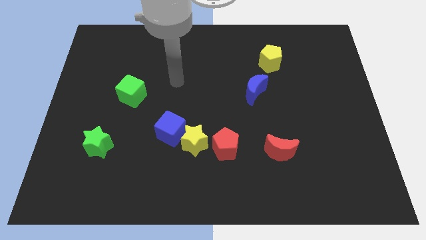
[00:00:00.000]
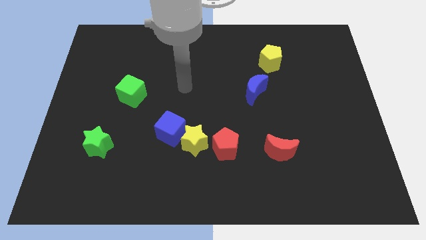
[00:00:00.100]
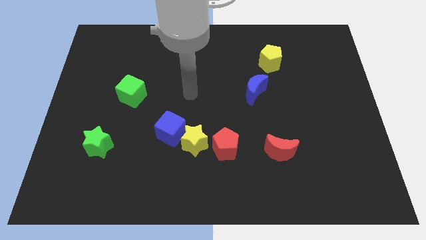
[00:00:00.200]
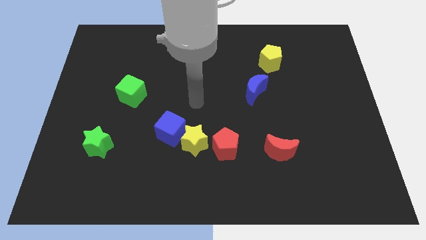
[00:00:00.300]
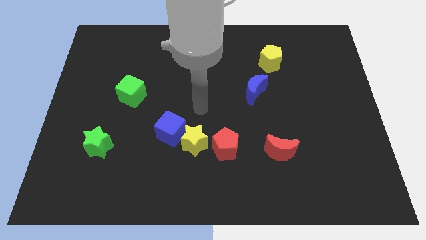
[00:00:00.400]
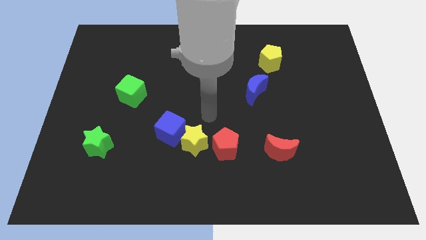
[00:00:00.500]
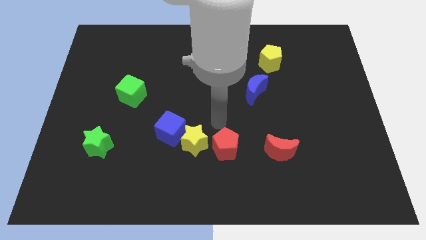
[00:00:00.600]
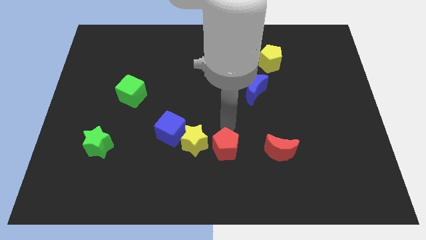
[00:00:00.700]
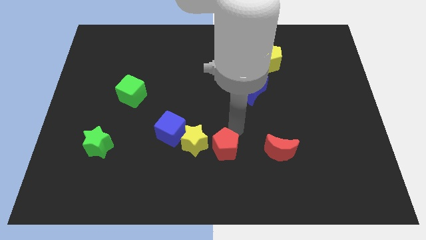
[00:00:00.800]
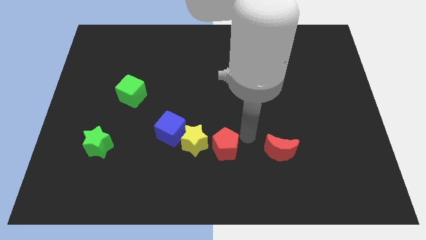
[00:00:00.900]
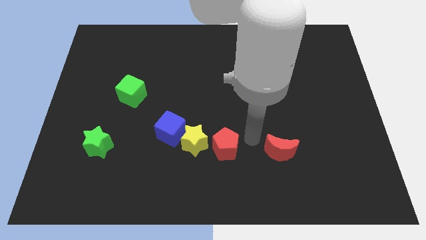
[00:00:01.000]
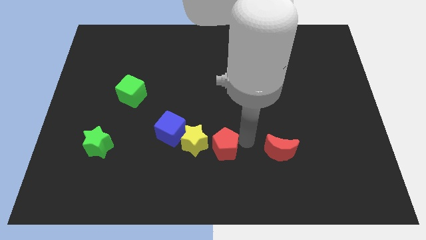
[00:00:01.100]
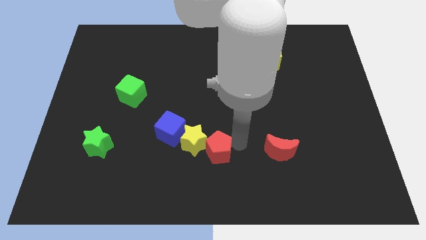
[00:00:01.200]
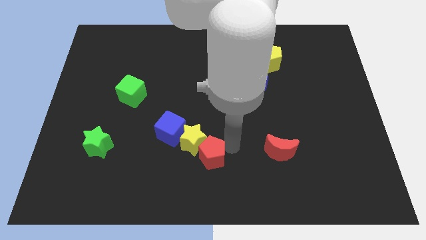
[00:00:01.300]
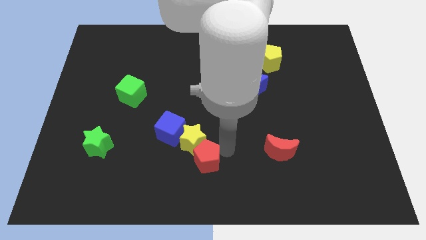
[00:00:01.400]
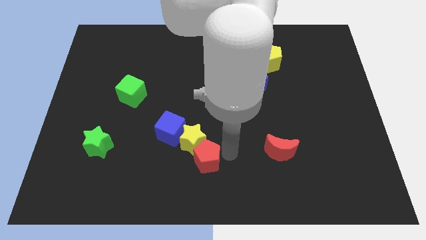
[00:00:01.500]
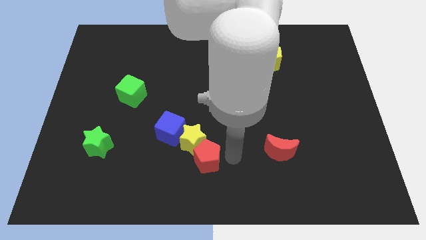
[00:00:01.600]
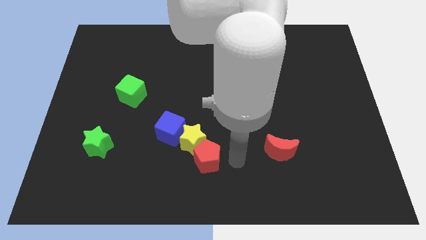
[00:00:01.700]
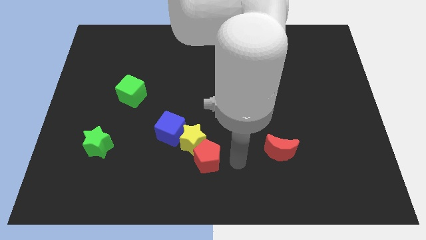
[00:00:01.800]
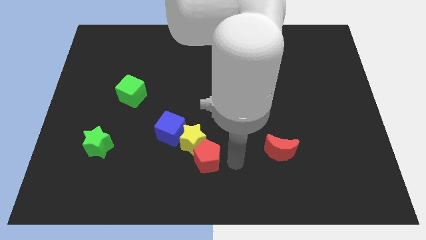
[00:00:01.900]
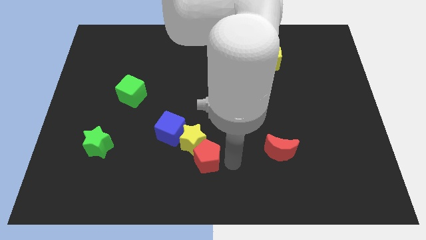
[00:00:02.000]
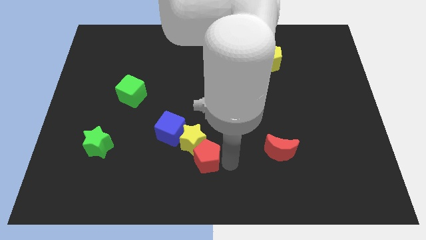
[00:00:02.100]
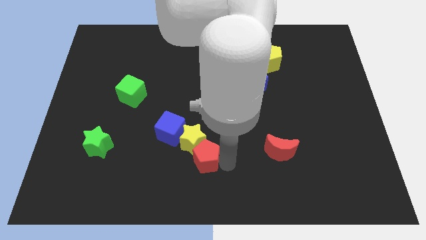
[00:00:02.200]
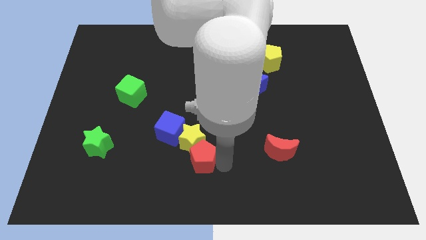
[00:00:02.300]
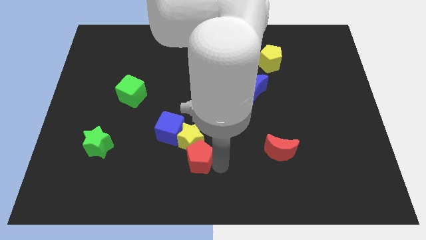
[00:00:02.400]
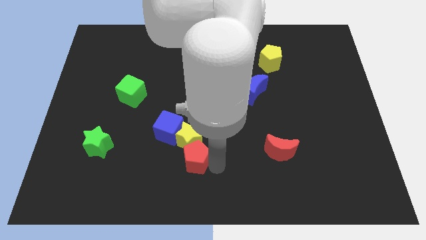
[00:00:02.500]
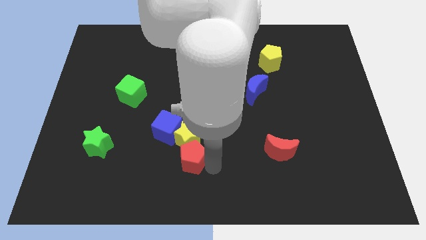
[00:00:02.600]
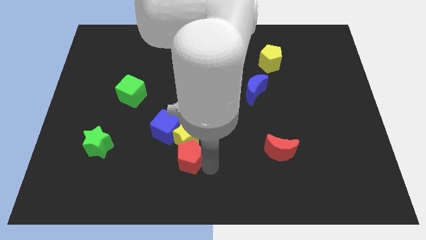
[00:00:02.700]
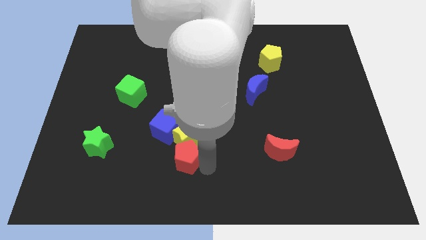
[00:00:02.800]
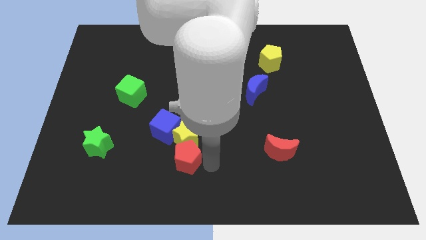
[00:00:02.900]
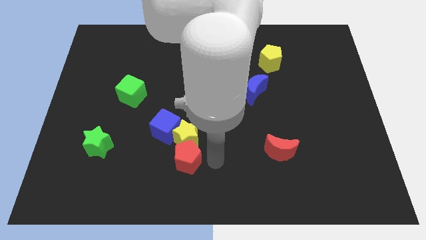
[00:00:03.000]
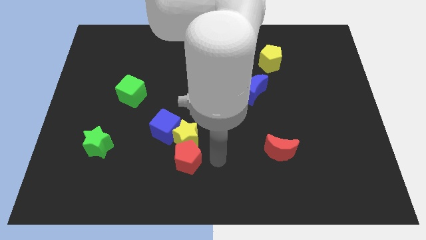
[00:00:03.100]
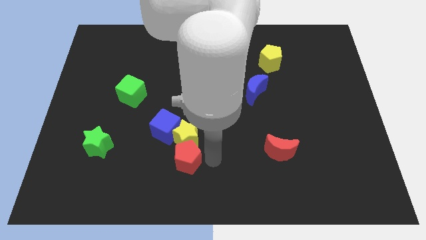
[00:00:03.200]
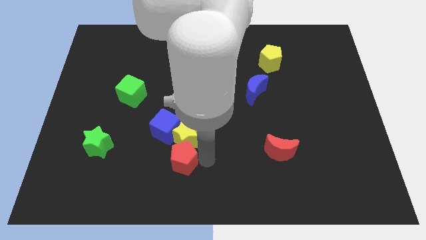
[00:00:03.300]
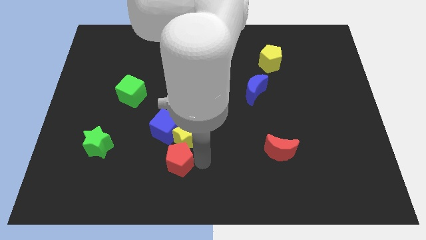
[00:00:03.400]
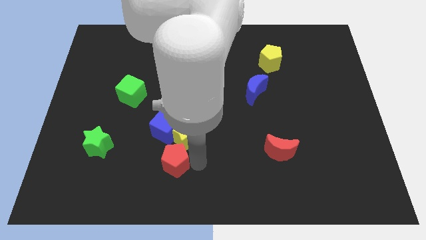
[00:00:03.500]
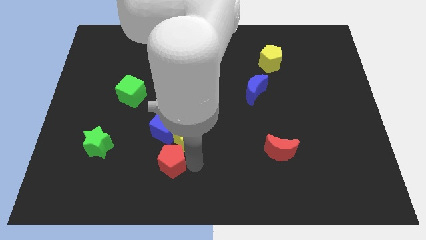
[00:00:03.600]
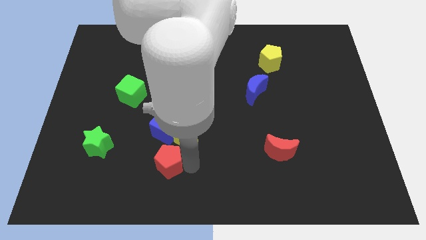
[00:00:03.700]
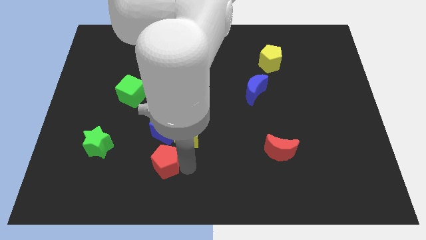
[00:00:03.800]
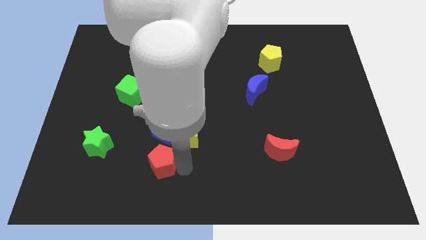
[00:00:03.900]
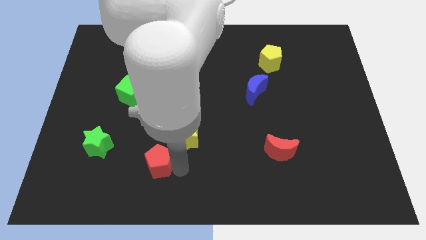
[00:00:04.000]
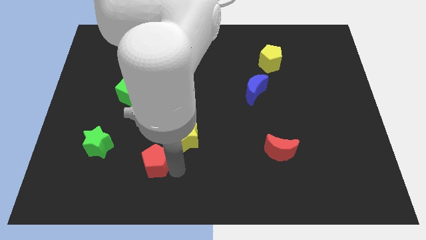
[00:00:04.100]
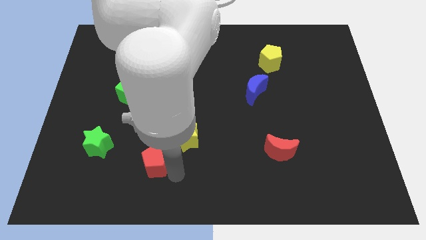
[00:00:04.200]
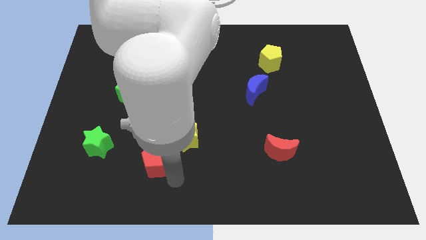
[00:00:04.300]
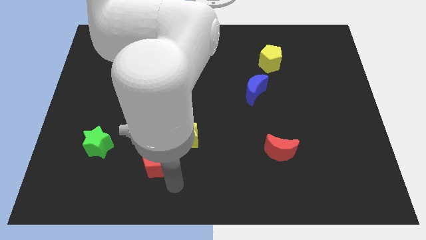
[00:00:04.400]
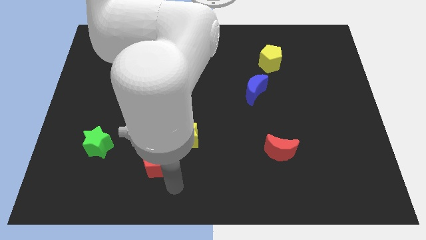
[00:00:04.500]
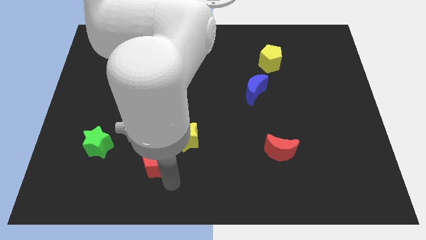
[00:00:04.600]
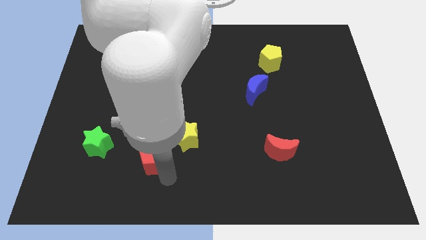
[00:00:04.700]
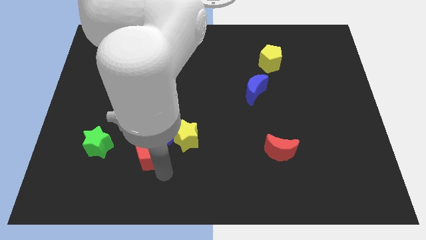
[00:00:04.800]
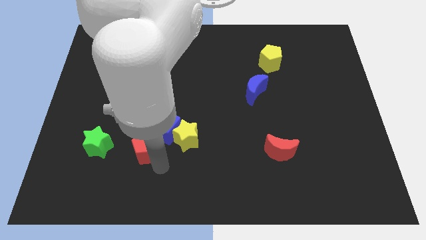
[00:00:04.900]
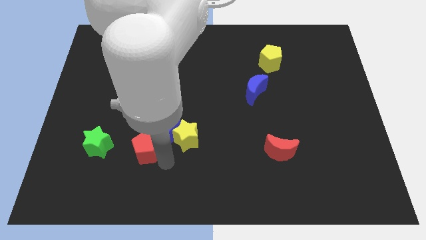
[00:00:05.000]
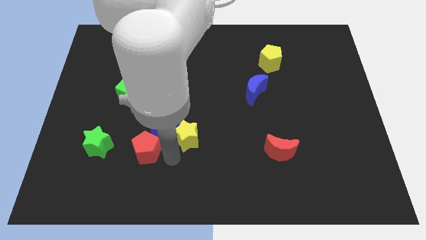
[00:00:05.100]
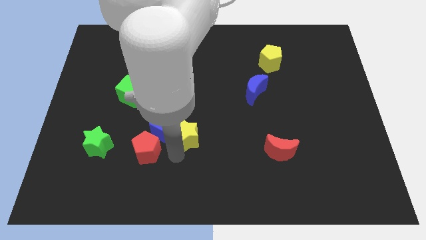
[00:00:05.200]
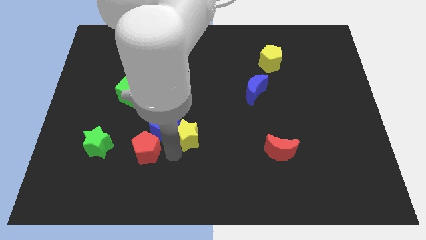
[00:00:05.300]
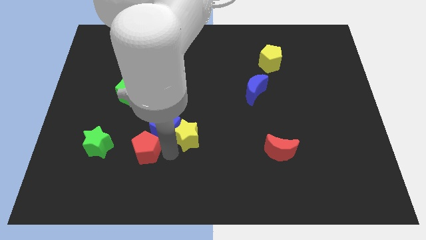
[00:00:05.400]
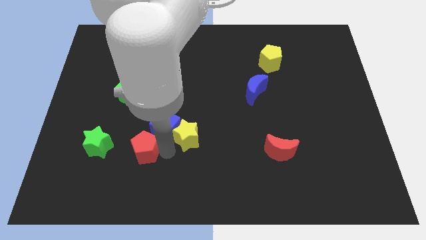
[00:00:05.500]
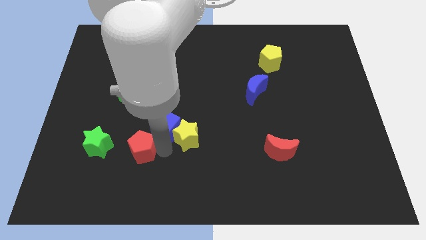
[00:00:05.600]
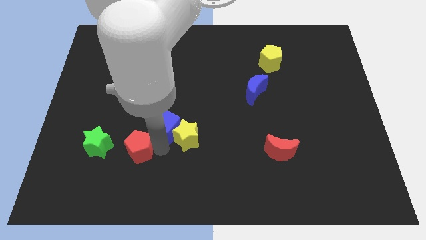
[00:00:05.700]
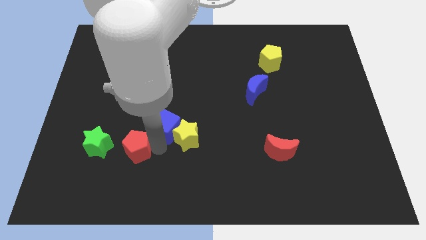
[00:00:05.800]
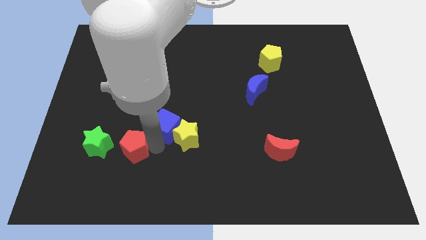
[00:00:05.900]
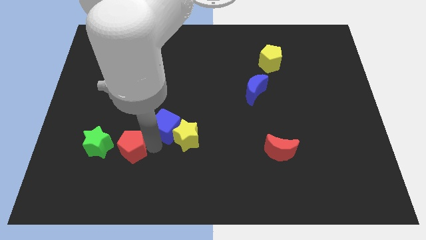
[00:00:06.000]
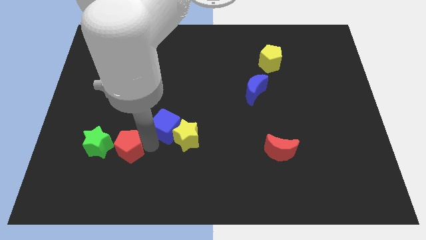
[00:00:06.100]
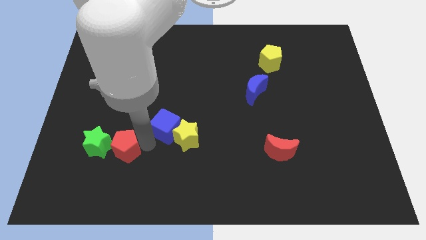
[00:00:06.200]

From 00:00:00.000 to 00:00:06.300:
put the red pentagon towards the green star

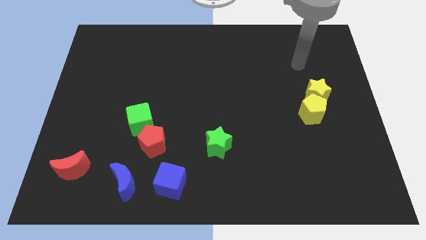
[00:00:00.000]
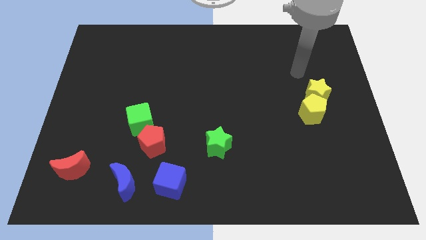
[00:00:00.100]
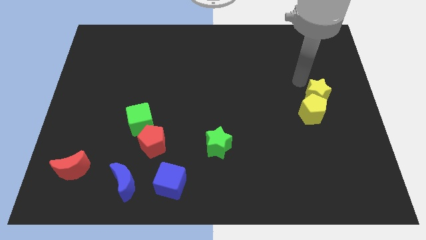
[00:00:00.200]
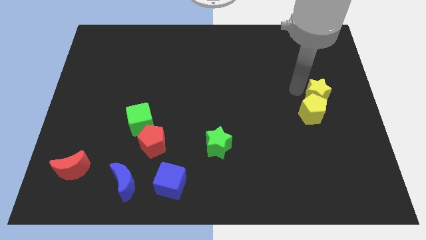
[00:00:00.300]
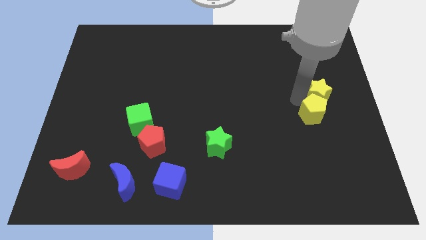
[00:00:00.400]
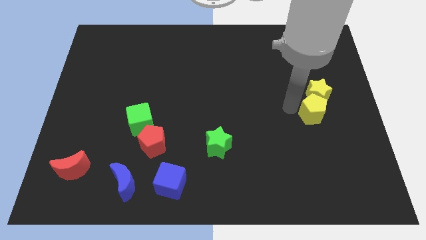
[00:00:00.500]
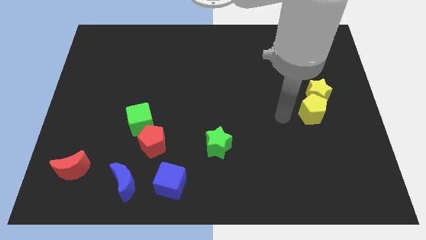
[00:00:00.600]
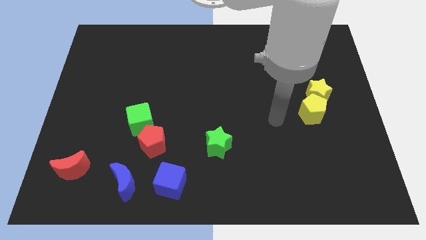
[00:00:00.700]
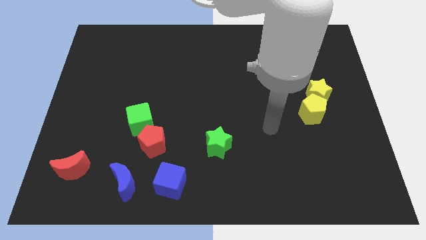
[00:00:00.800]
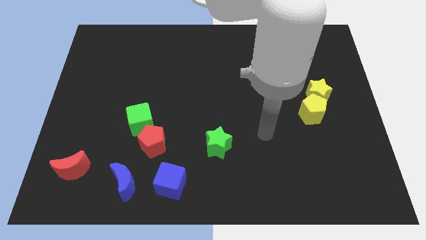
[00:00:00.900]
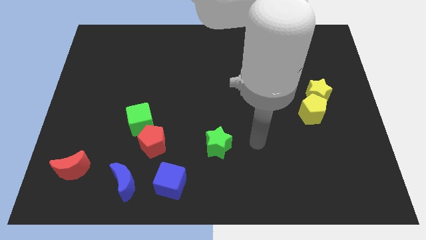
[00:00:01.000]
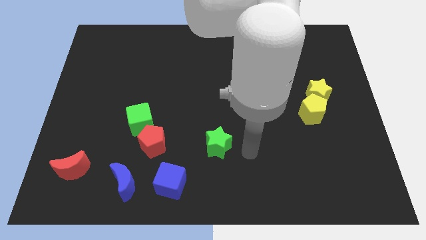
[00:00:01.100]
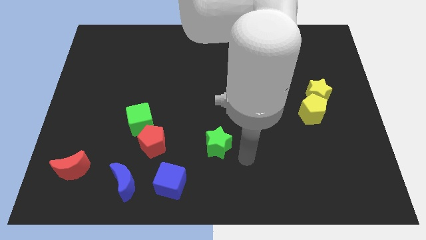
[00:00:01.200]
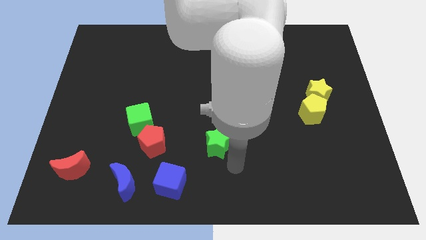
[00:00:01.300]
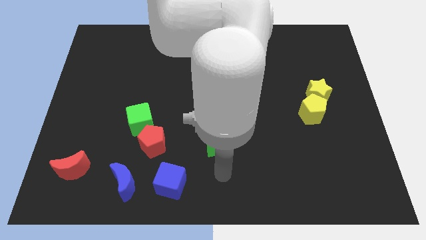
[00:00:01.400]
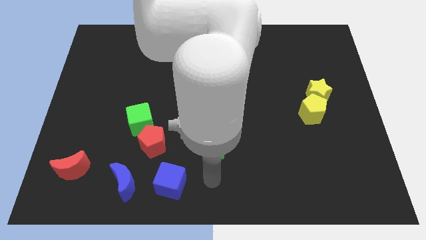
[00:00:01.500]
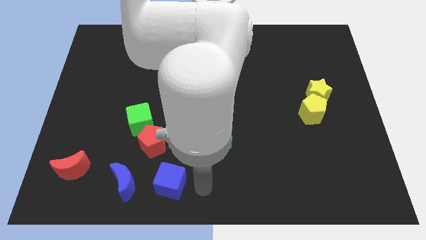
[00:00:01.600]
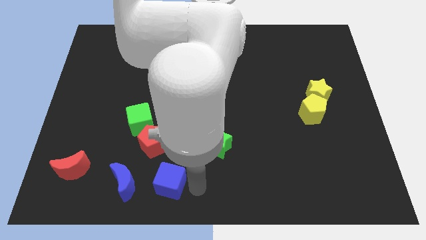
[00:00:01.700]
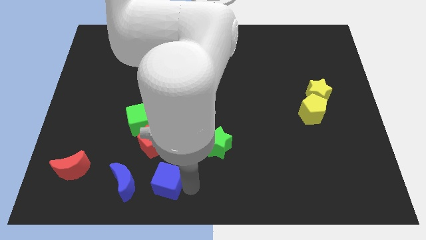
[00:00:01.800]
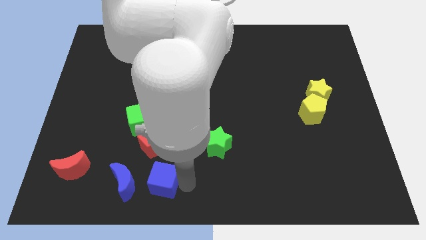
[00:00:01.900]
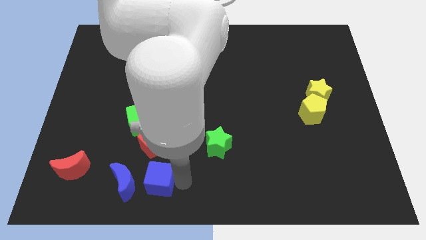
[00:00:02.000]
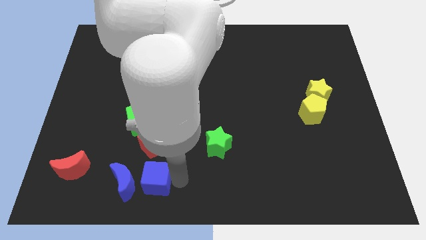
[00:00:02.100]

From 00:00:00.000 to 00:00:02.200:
push the blue cube to the blue moon
